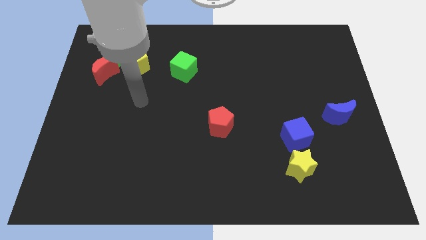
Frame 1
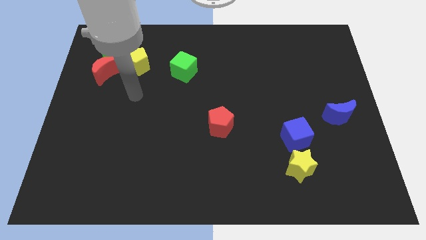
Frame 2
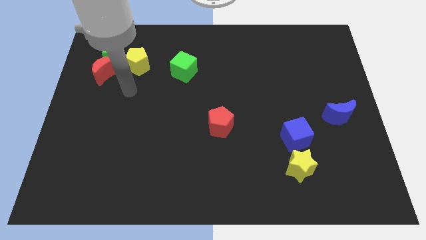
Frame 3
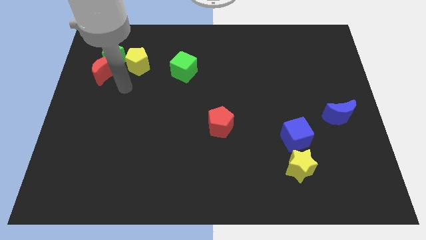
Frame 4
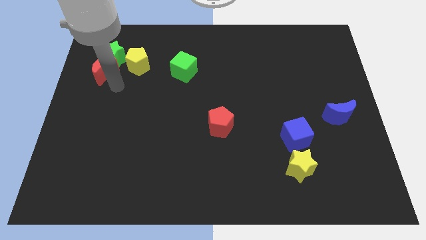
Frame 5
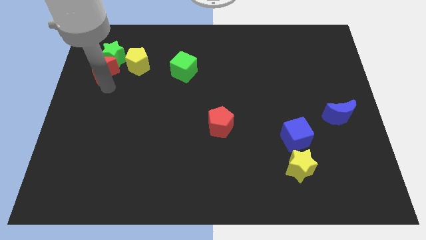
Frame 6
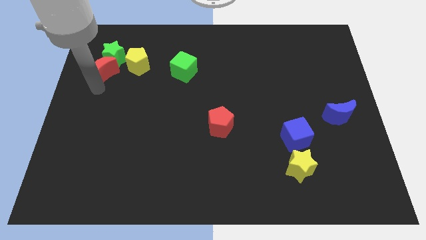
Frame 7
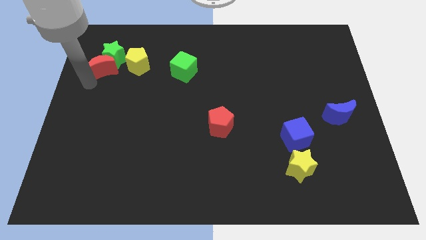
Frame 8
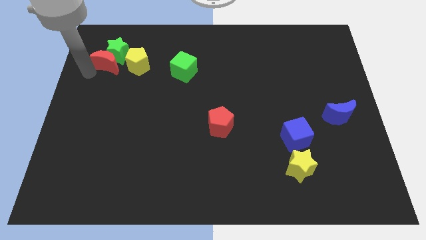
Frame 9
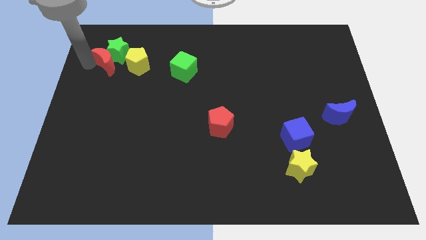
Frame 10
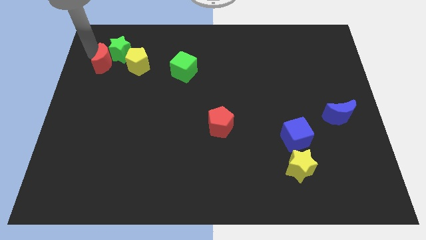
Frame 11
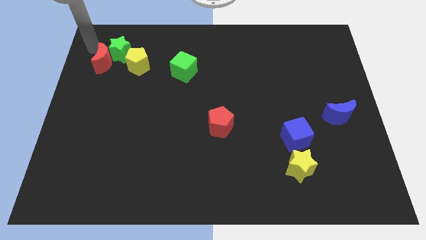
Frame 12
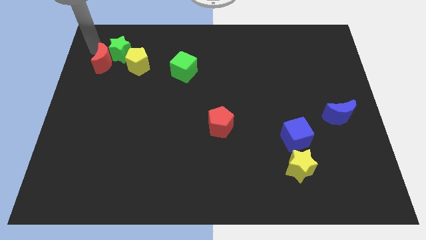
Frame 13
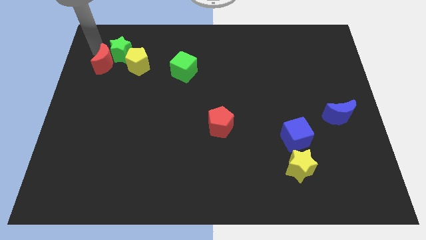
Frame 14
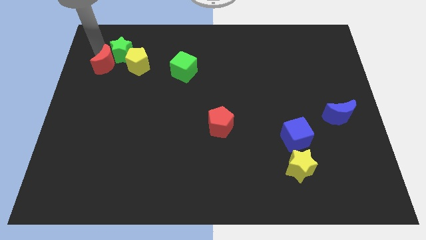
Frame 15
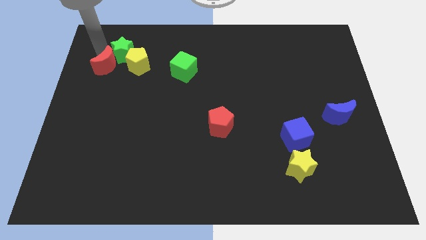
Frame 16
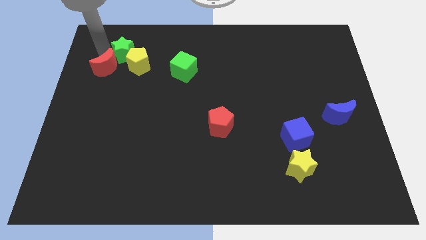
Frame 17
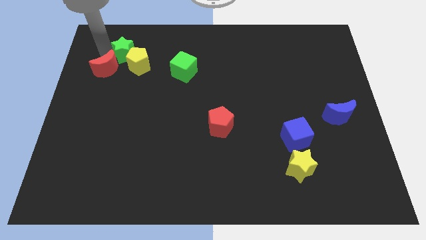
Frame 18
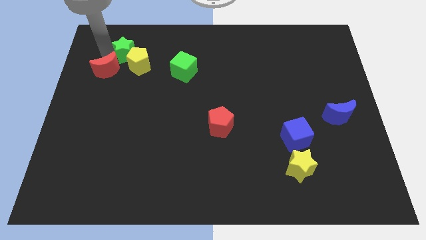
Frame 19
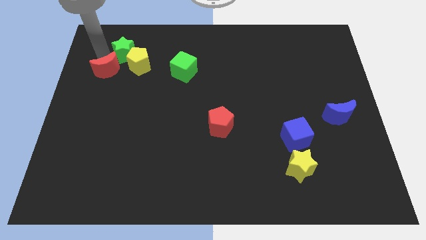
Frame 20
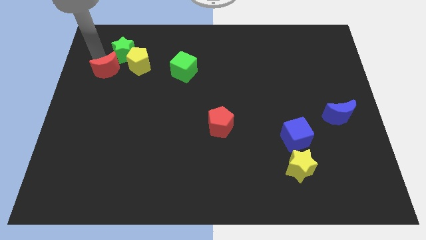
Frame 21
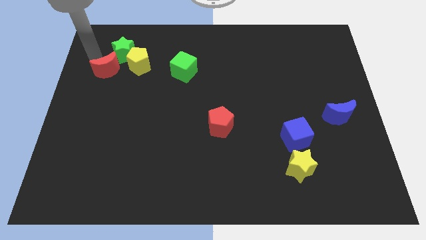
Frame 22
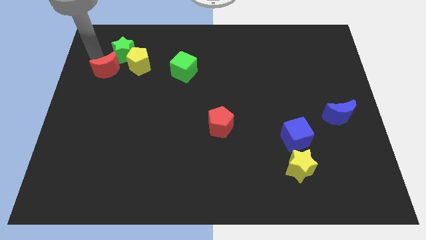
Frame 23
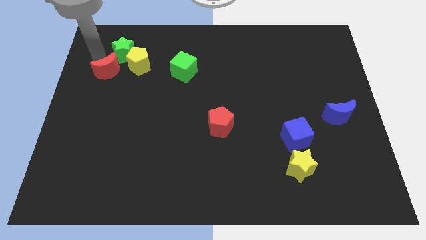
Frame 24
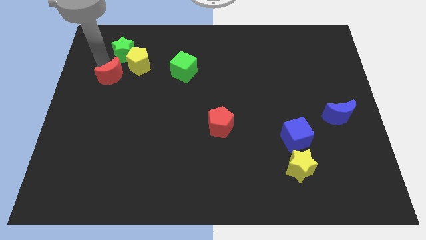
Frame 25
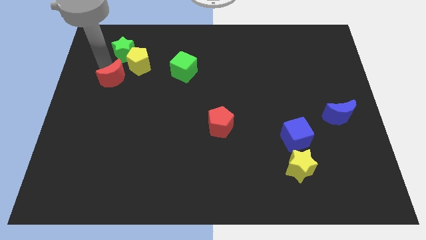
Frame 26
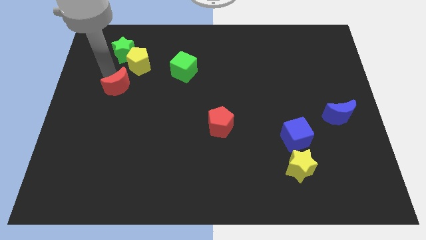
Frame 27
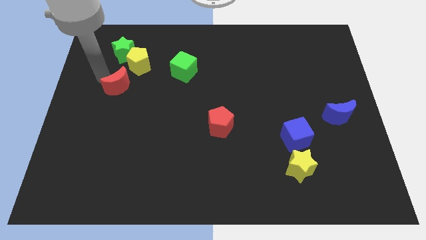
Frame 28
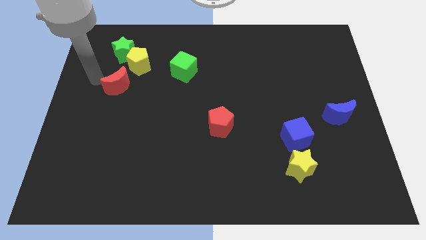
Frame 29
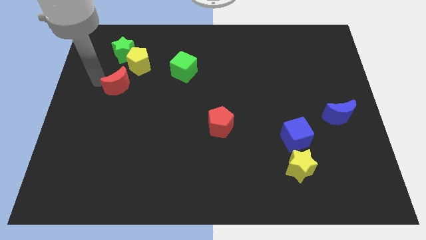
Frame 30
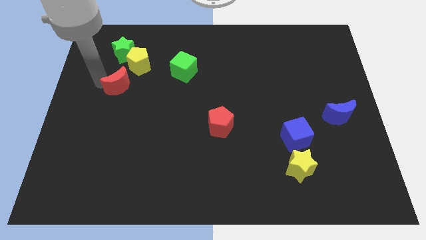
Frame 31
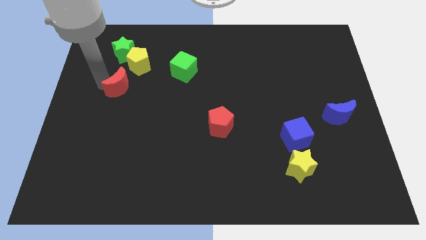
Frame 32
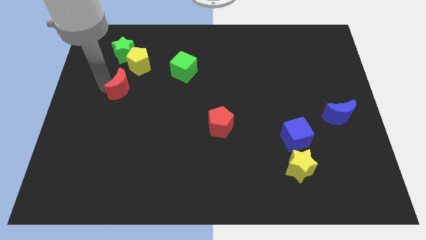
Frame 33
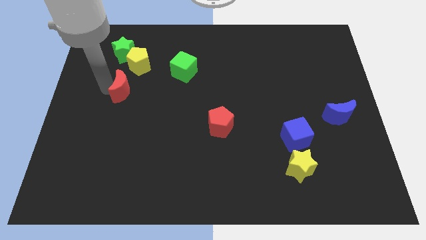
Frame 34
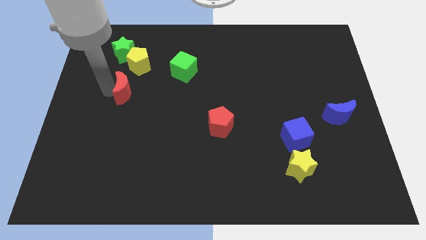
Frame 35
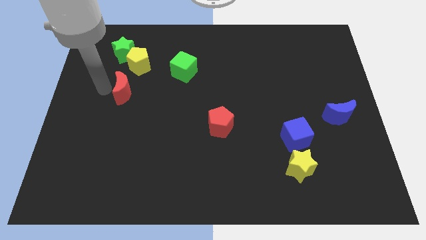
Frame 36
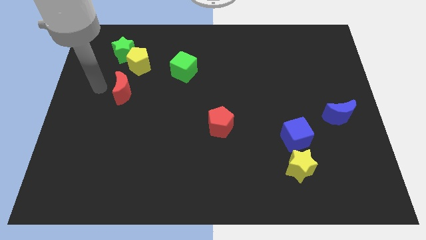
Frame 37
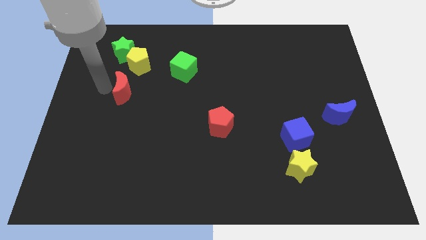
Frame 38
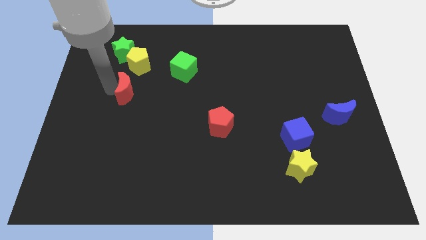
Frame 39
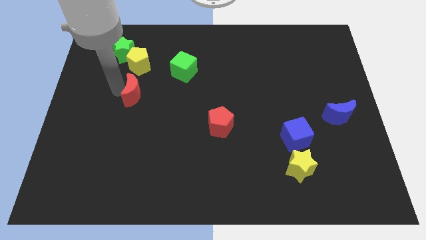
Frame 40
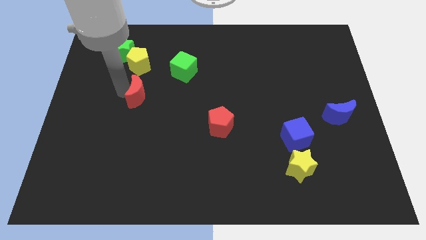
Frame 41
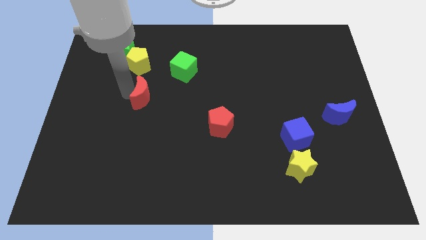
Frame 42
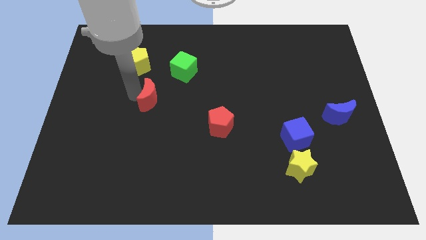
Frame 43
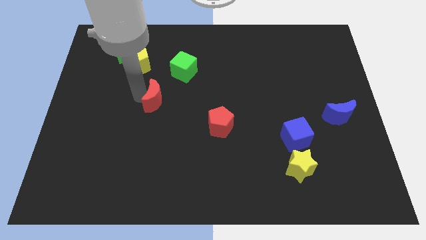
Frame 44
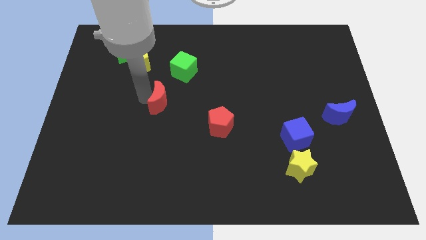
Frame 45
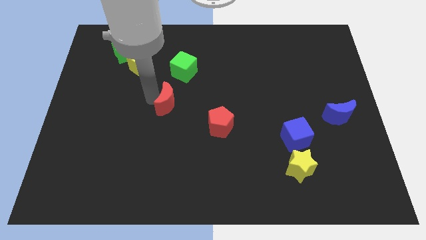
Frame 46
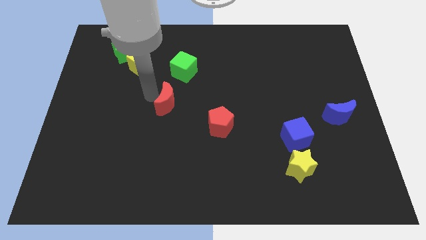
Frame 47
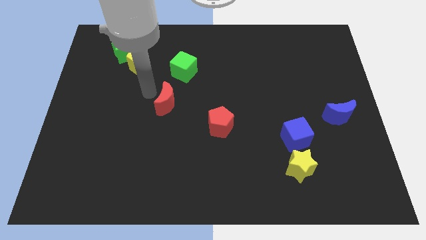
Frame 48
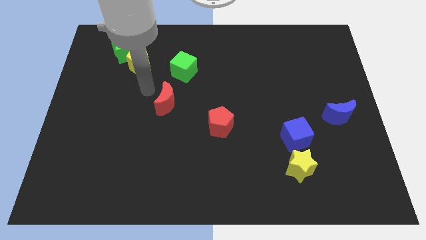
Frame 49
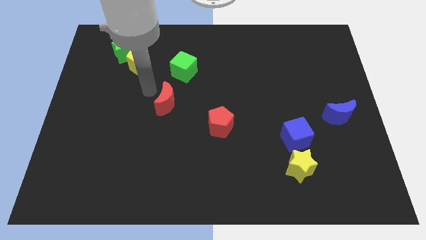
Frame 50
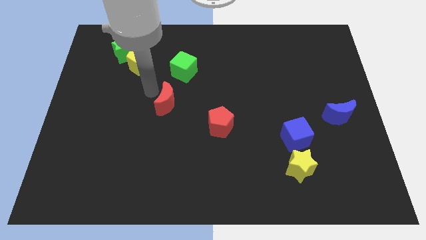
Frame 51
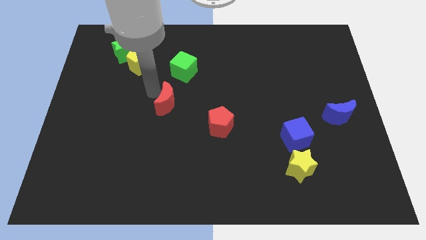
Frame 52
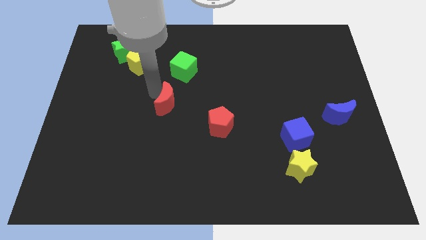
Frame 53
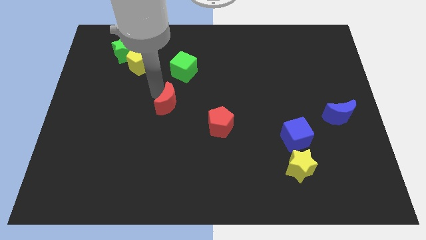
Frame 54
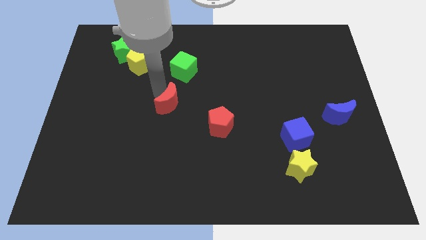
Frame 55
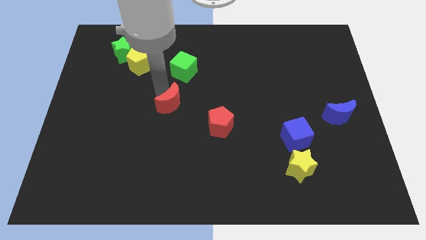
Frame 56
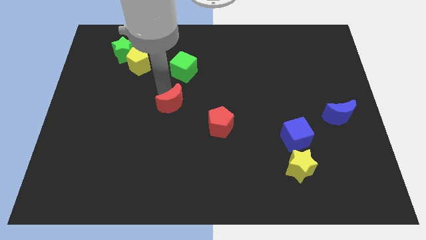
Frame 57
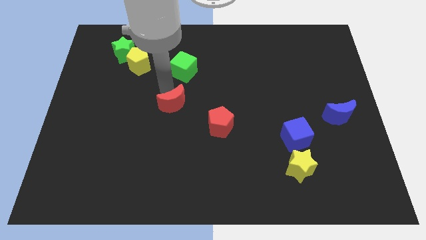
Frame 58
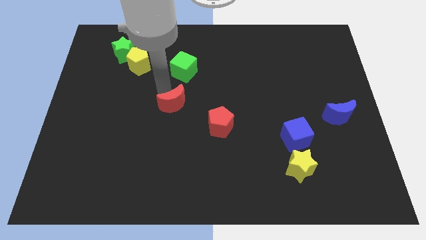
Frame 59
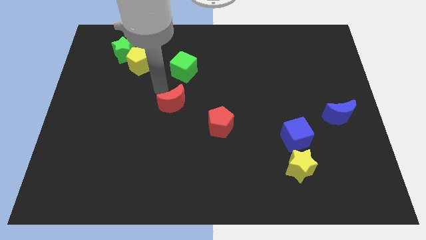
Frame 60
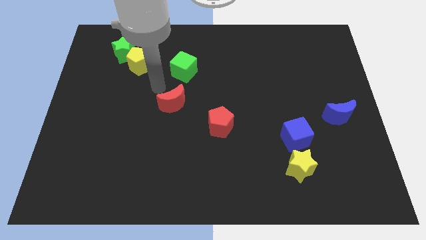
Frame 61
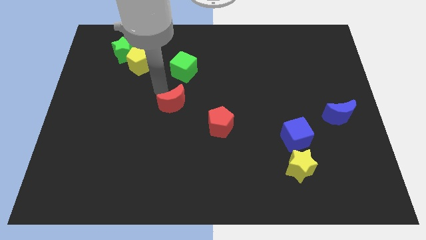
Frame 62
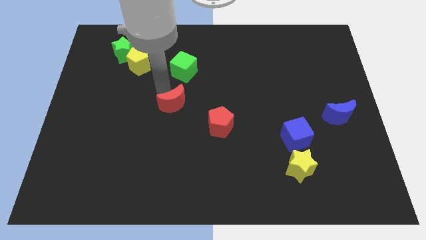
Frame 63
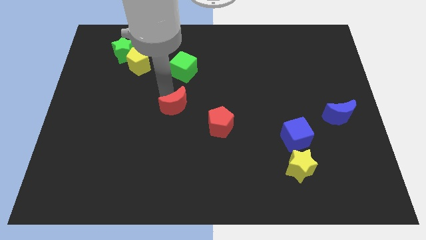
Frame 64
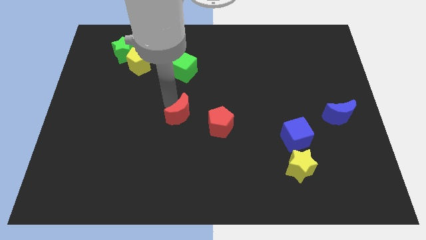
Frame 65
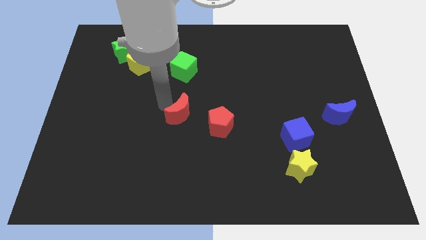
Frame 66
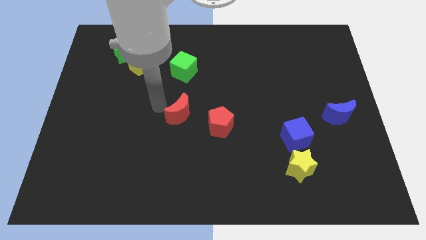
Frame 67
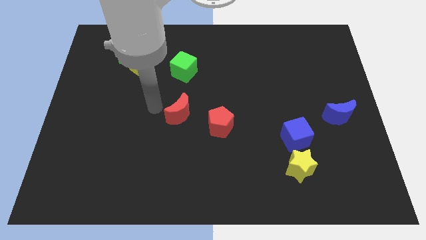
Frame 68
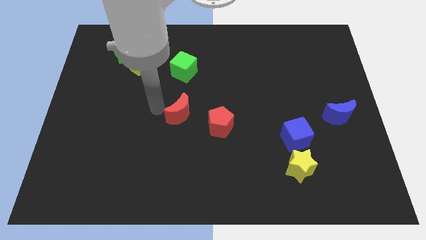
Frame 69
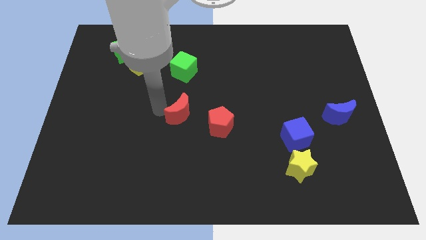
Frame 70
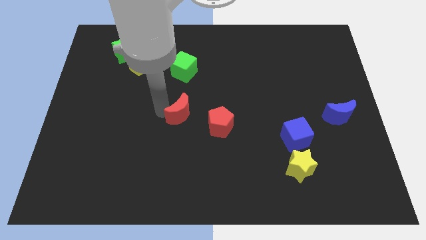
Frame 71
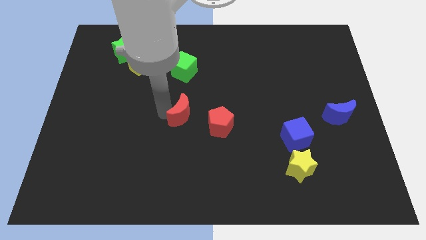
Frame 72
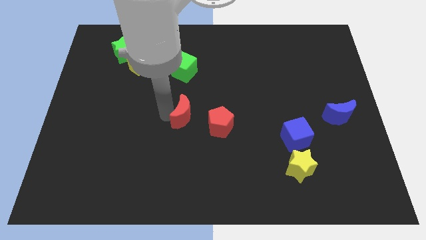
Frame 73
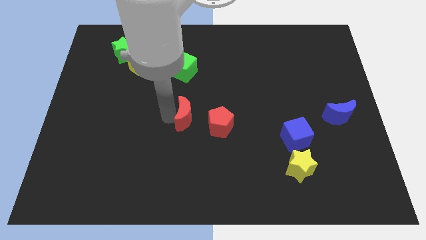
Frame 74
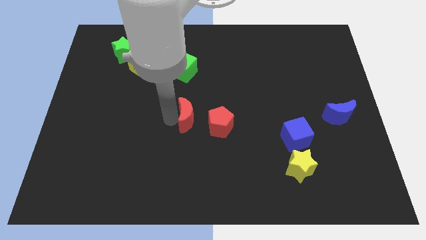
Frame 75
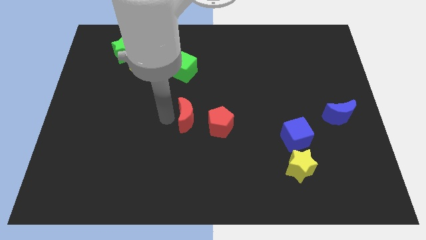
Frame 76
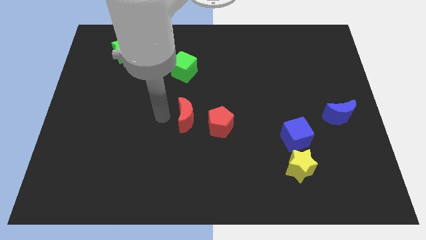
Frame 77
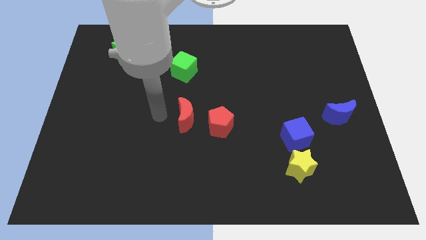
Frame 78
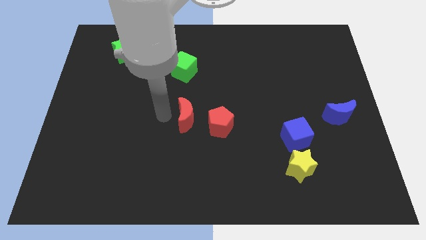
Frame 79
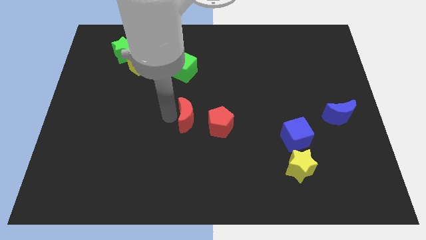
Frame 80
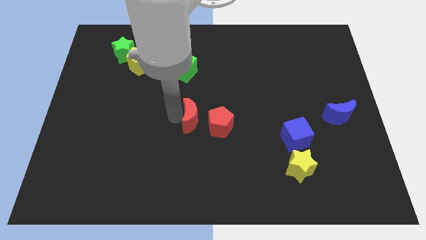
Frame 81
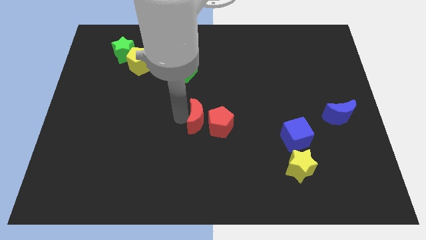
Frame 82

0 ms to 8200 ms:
put the red moon close to the red pentagon
